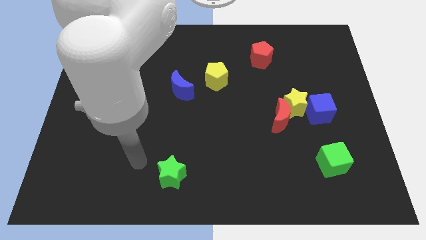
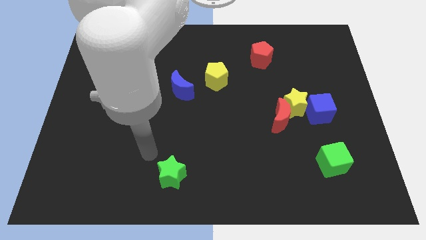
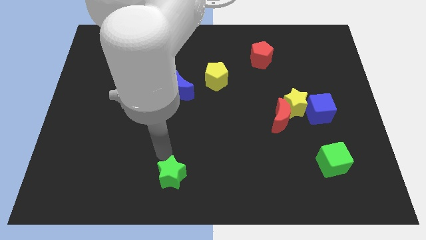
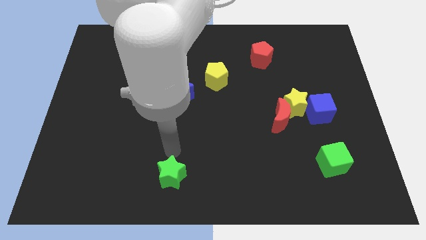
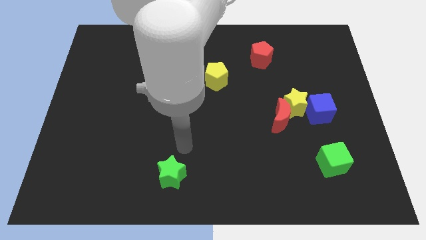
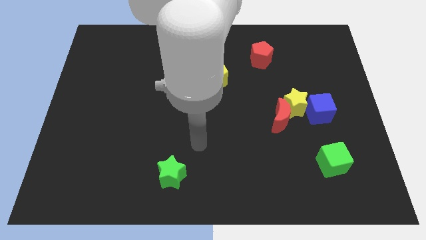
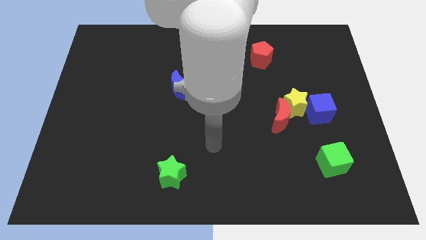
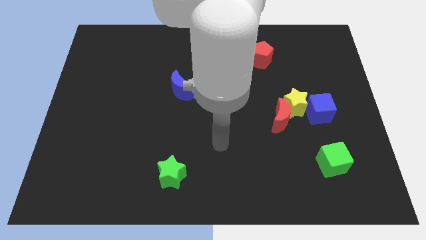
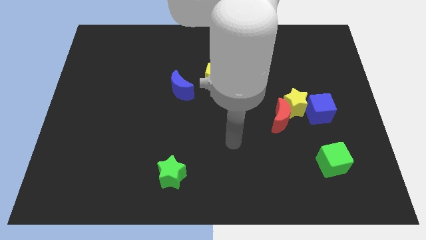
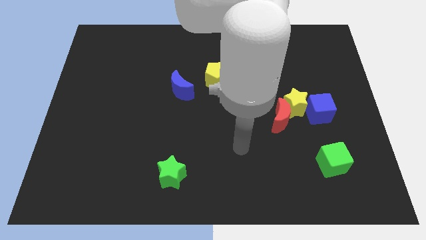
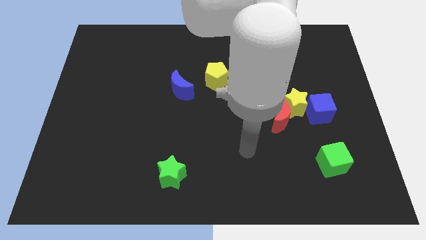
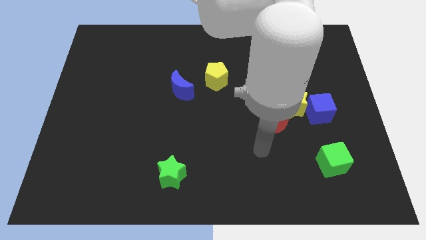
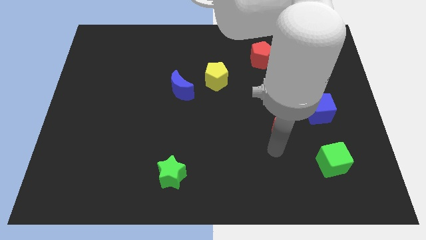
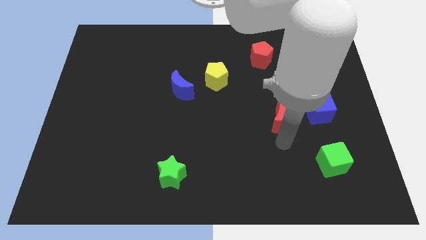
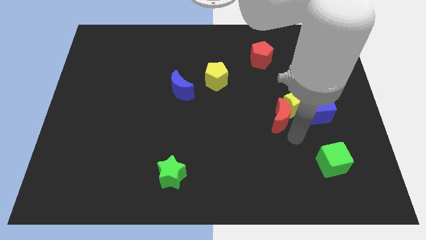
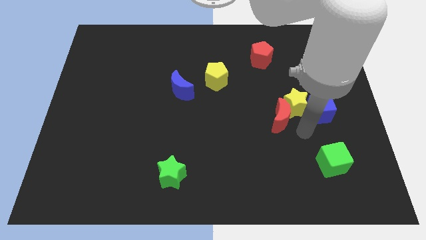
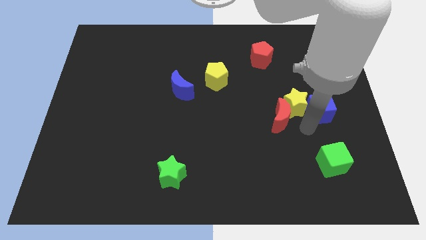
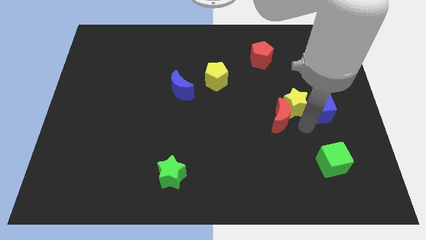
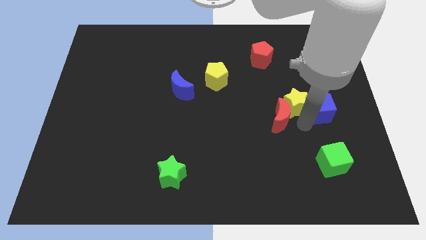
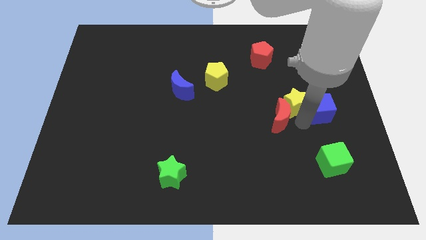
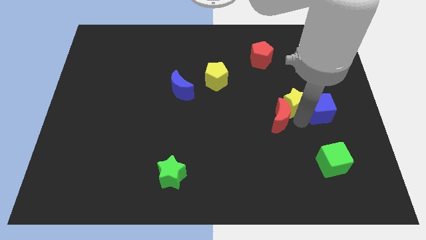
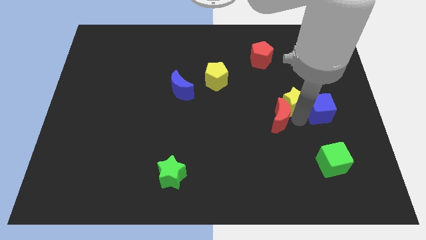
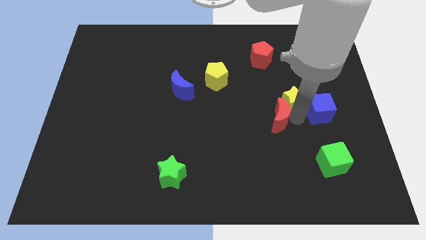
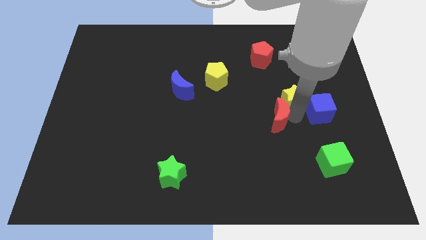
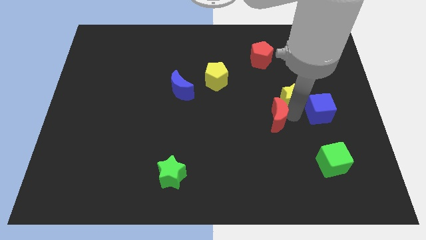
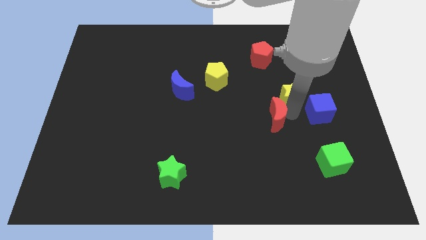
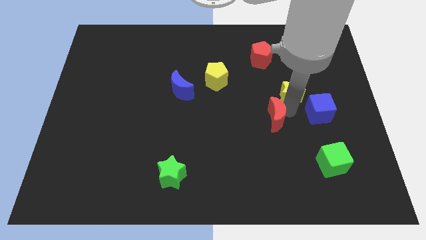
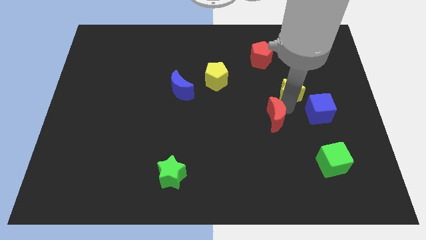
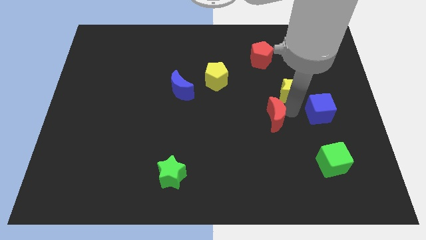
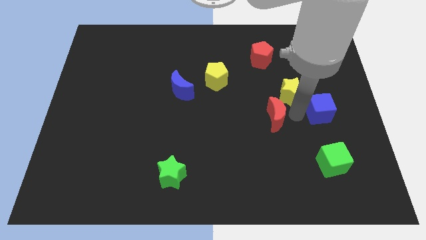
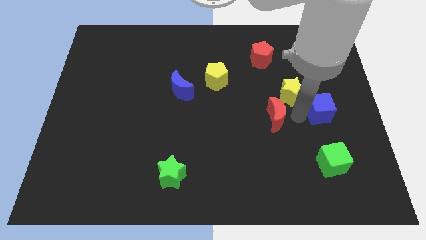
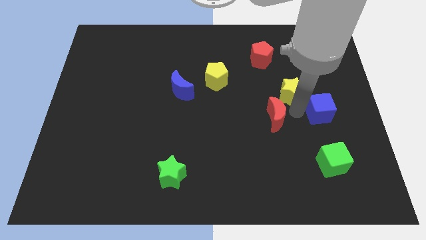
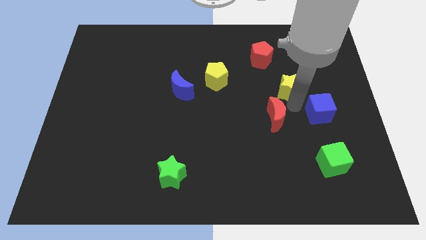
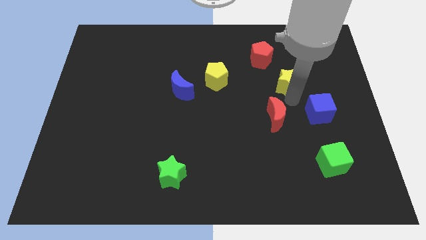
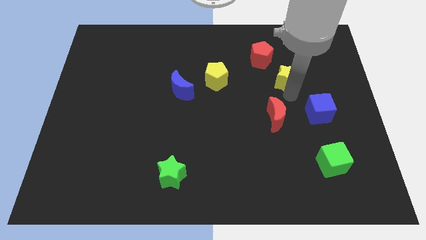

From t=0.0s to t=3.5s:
pull the yellow star apart from the red moon and blue cube

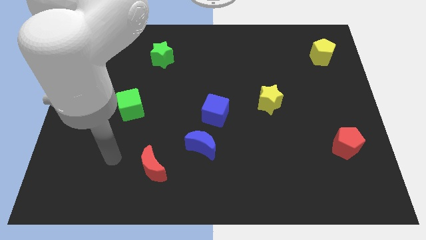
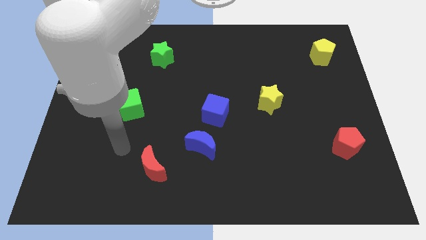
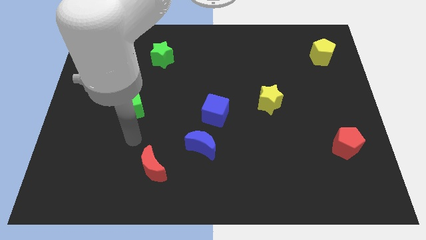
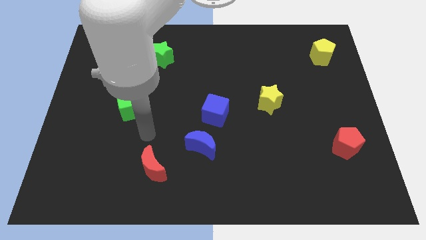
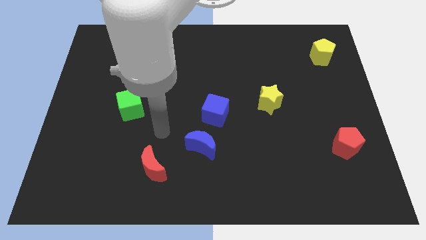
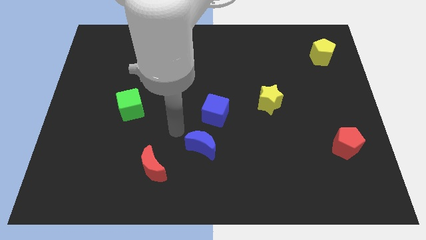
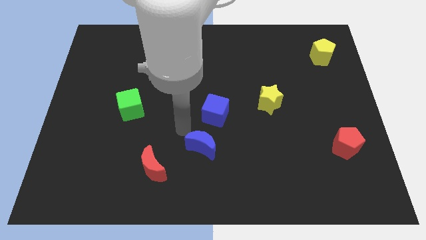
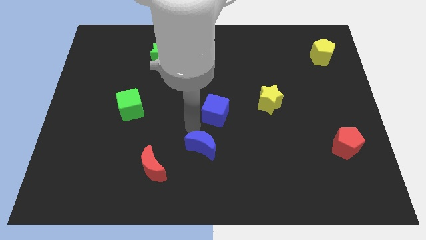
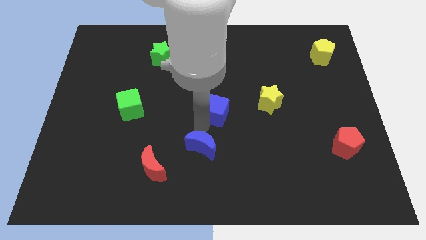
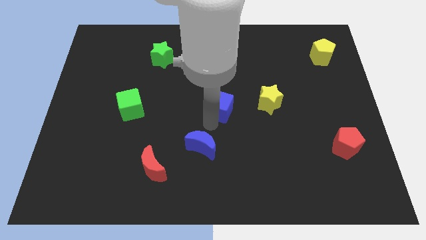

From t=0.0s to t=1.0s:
move the blue moon away from the blue cube

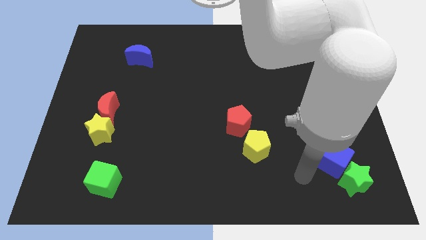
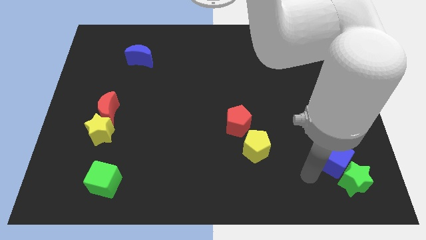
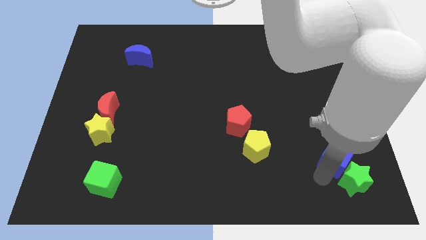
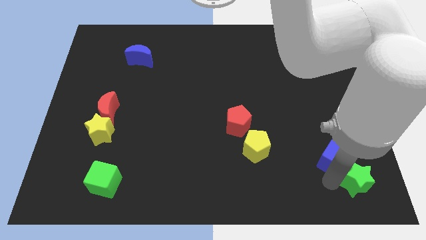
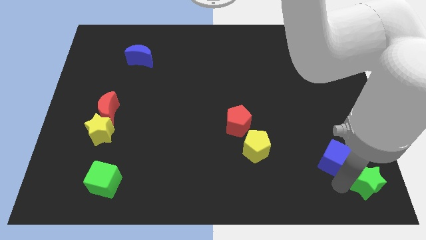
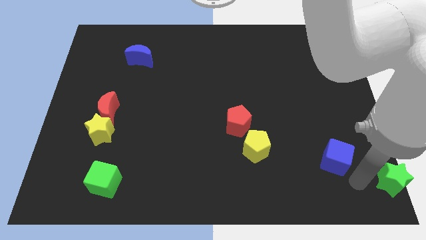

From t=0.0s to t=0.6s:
pull the blue cube apart from the green star

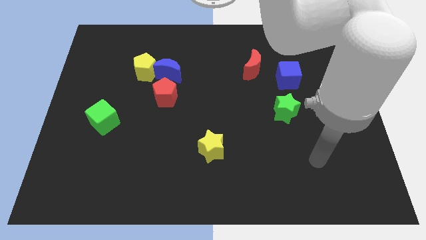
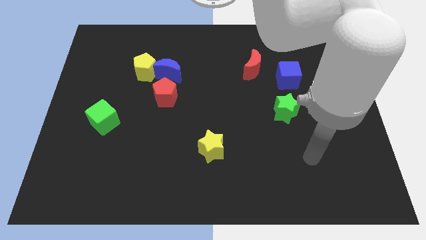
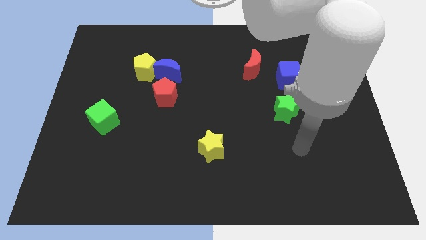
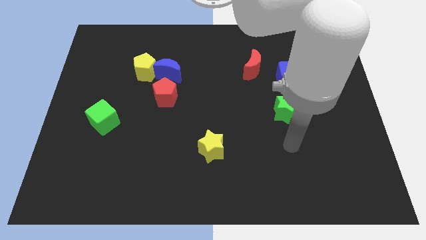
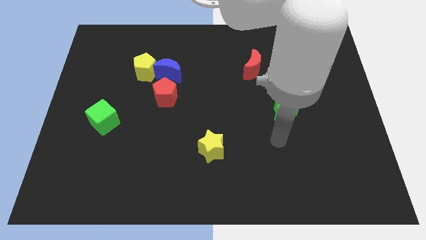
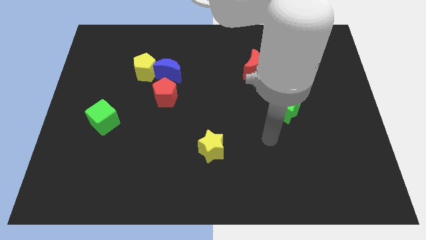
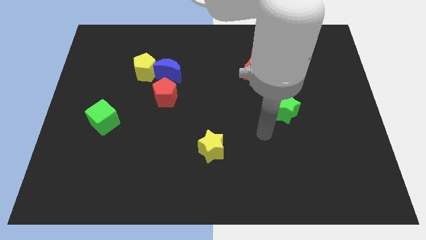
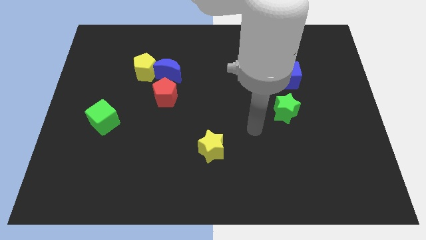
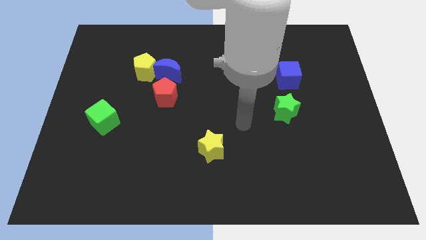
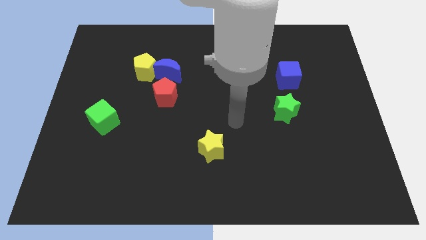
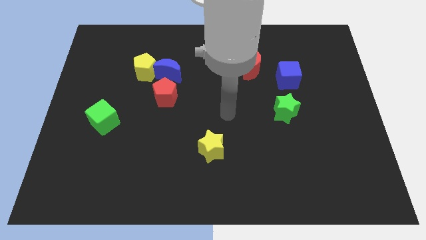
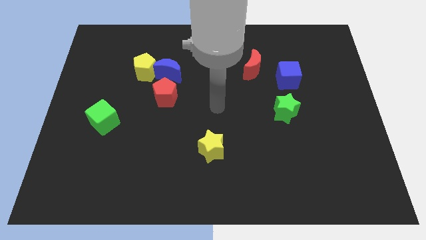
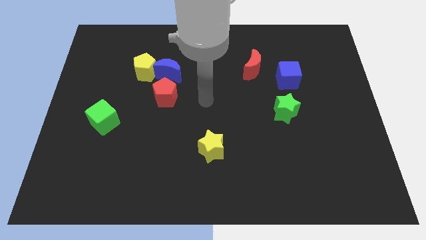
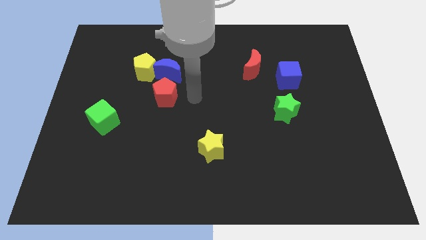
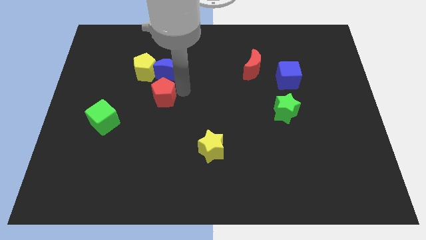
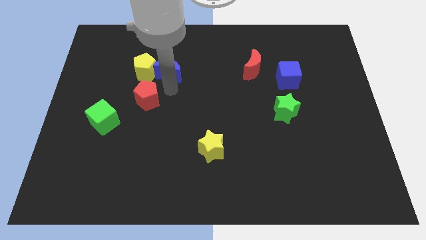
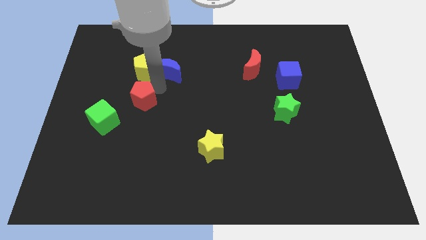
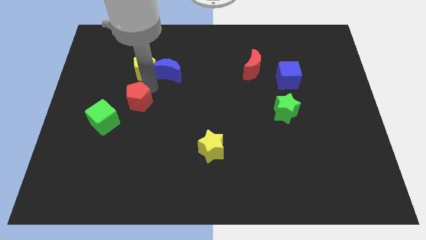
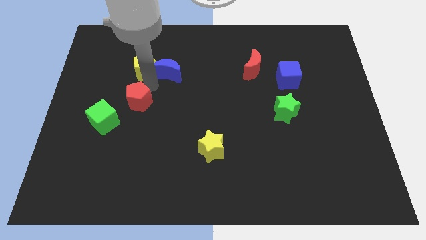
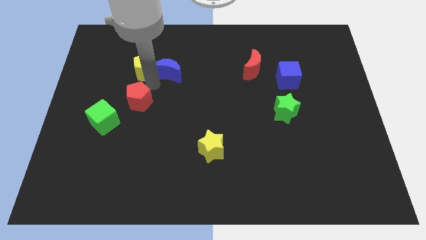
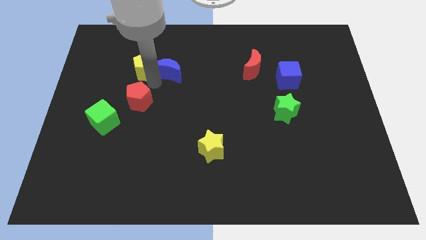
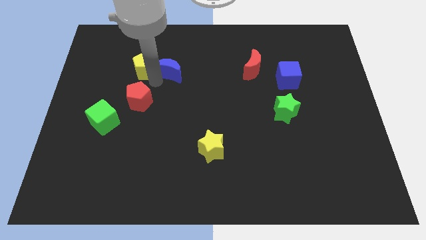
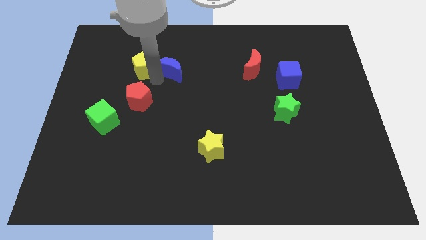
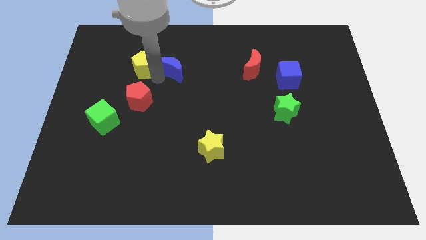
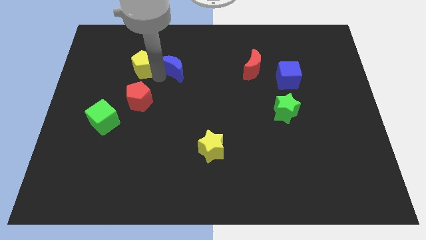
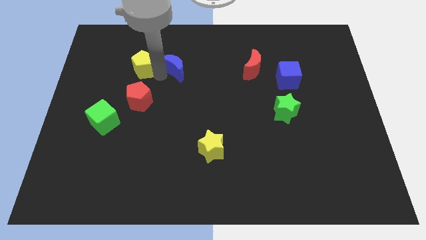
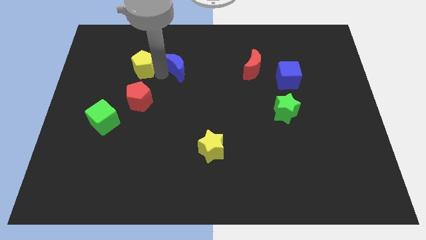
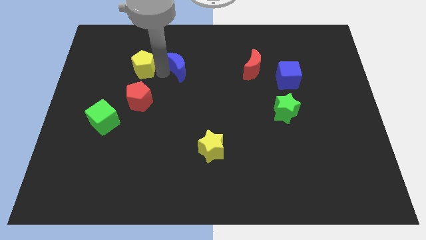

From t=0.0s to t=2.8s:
separate the blue moon from the yellow pentagon and red pentagon

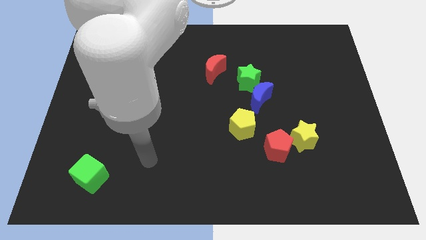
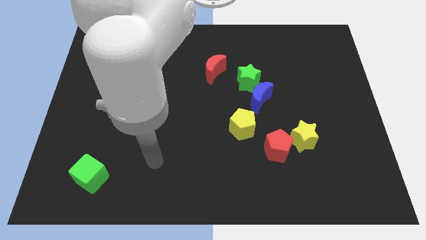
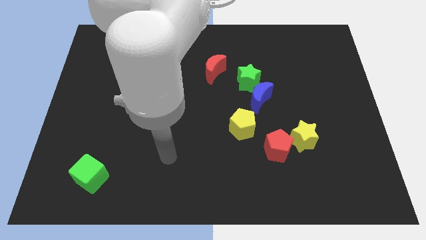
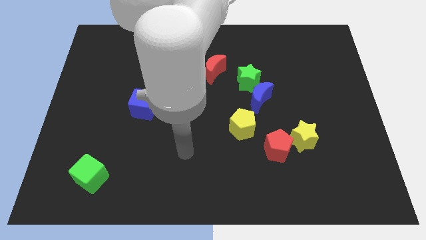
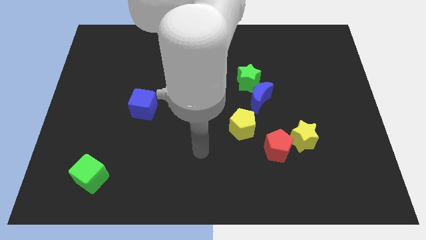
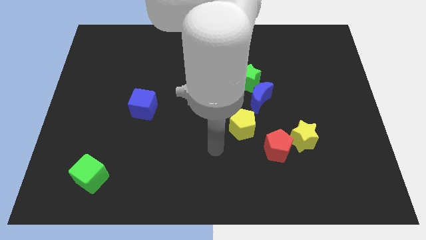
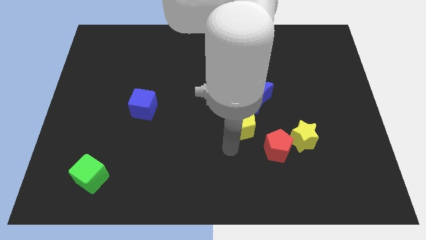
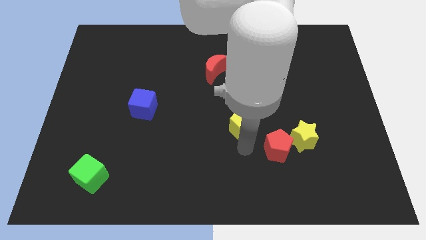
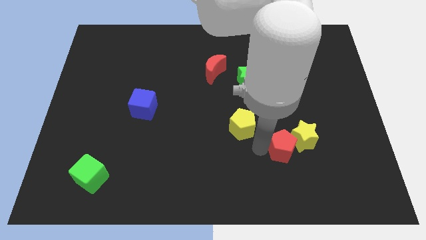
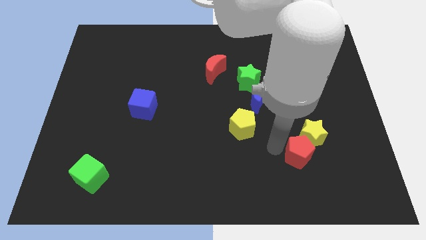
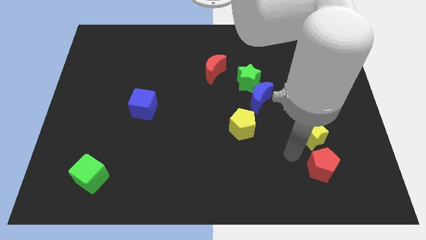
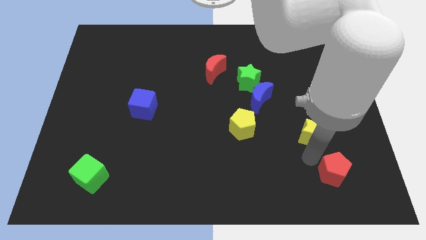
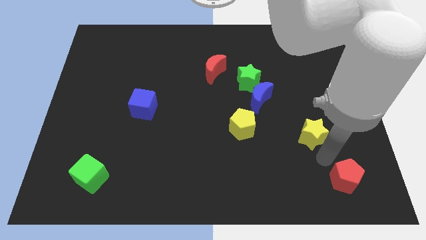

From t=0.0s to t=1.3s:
move the yellow star away from the red pentagon

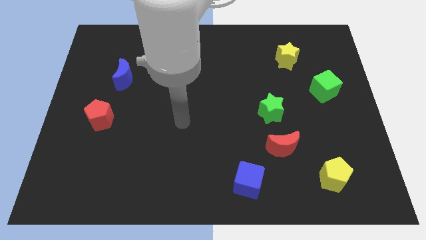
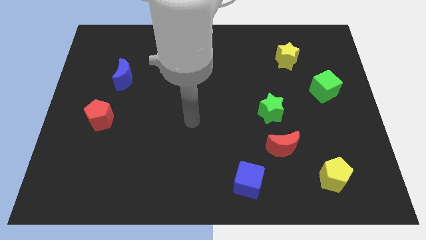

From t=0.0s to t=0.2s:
move the red moon away from the green star
